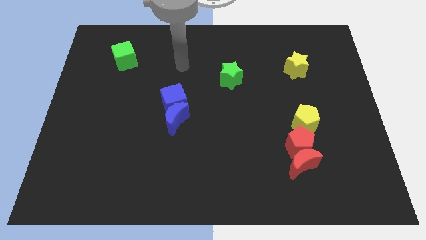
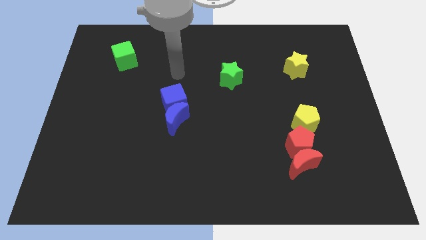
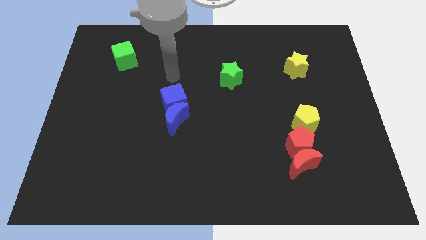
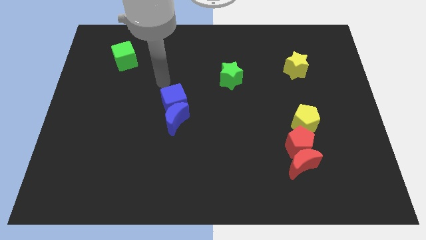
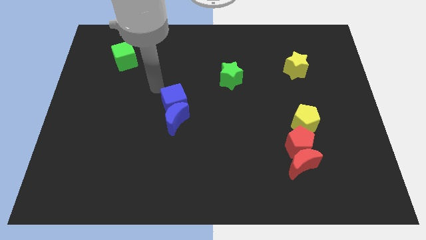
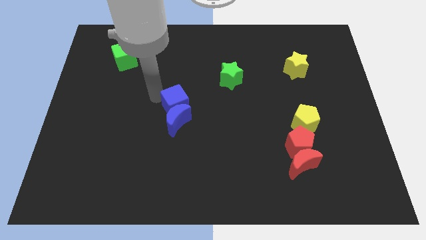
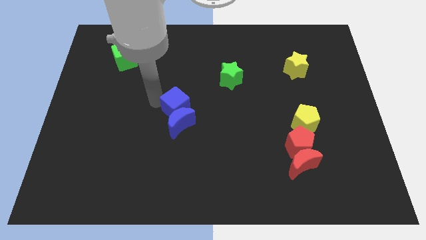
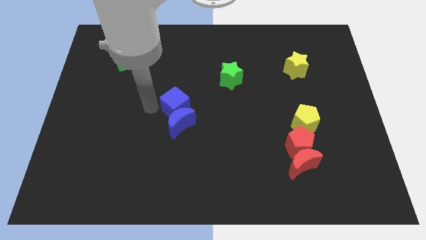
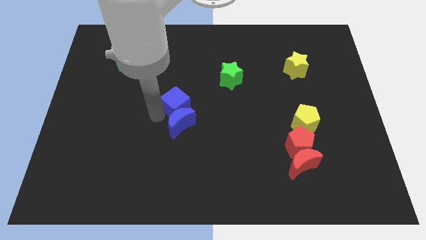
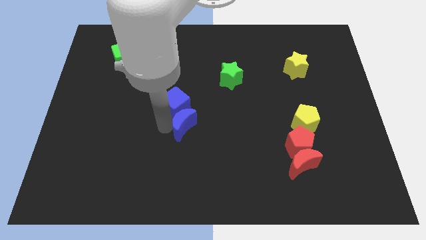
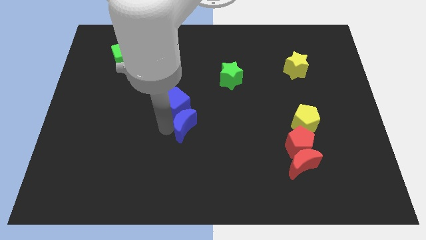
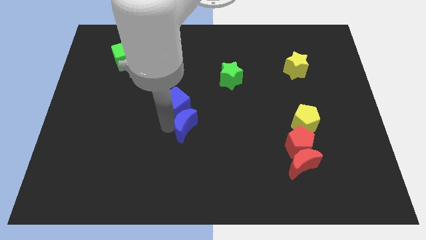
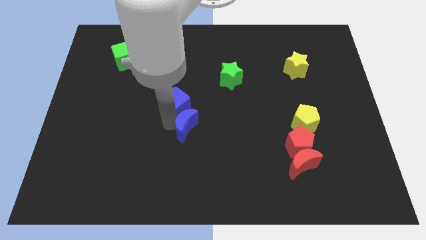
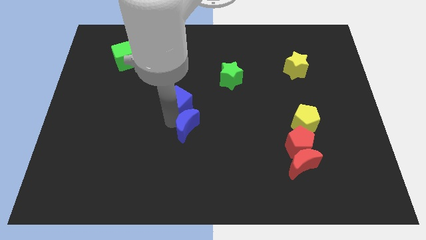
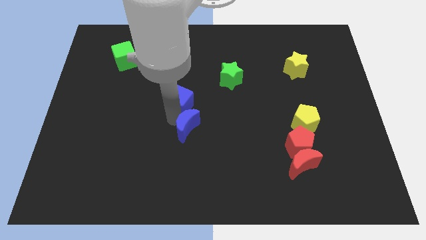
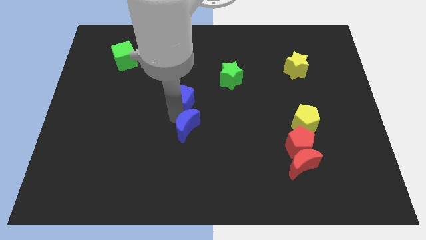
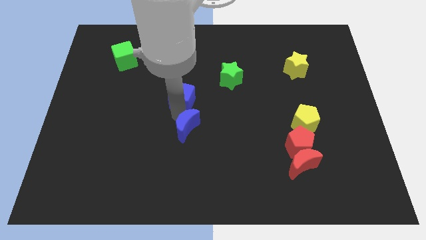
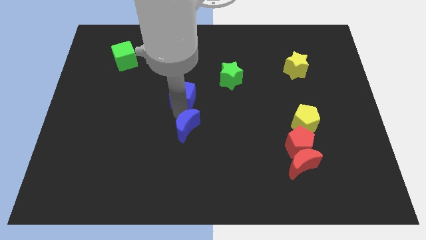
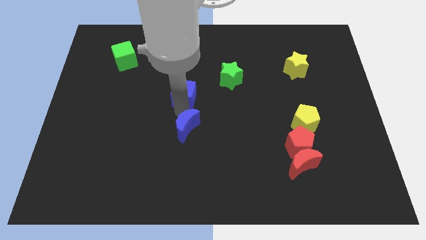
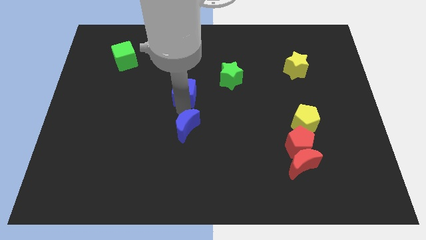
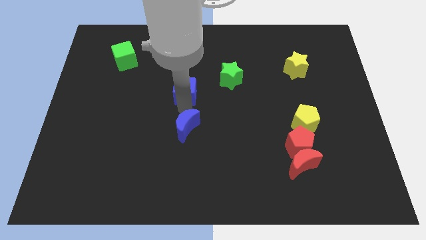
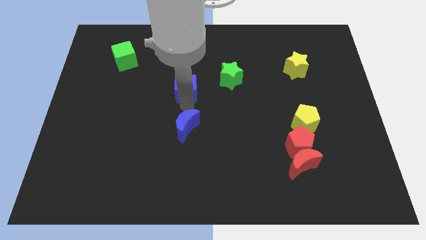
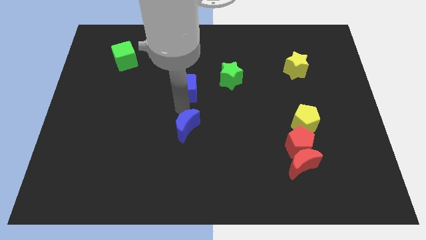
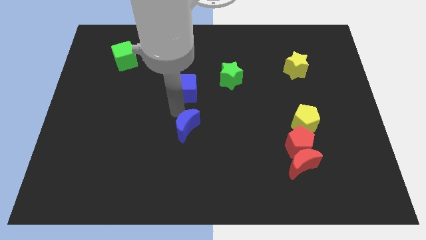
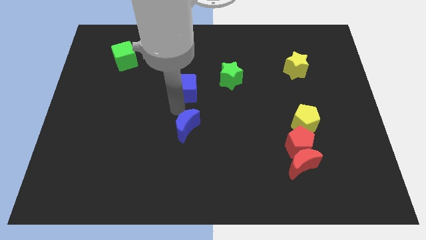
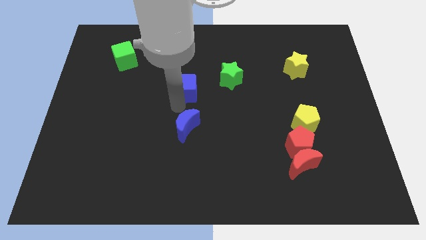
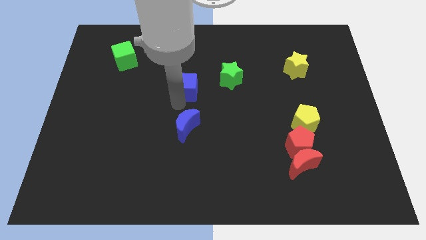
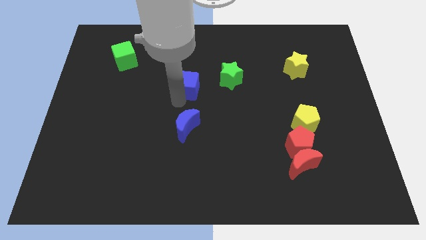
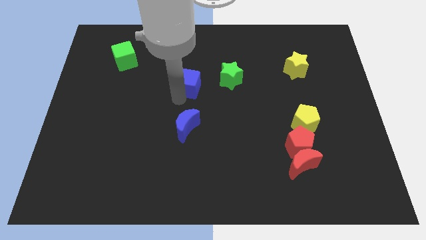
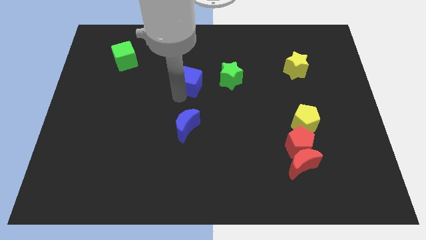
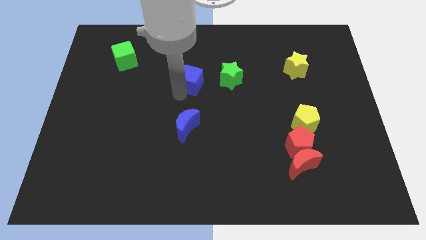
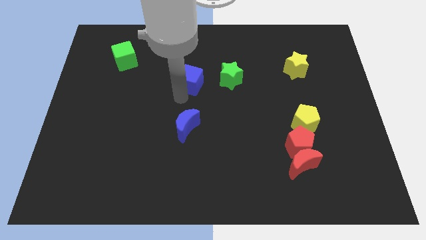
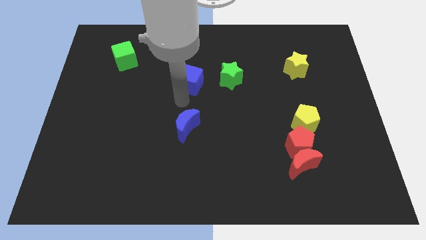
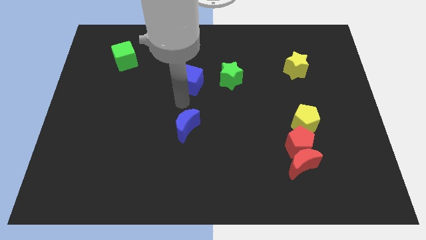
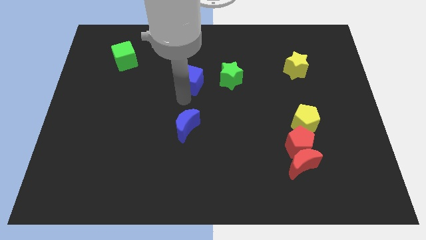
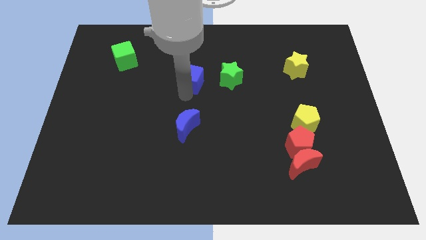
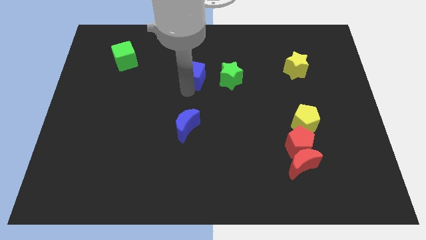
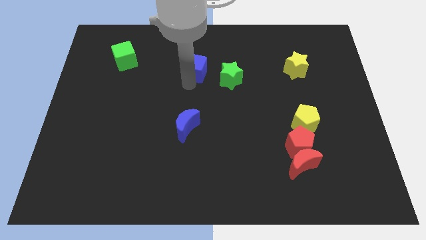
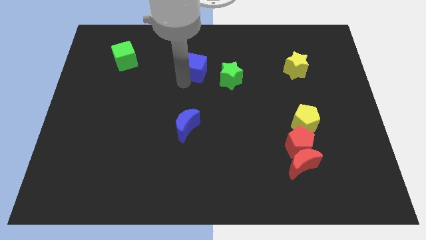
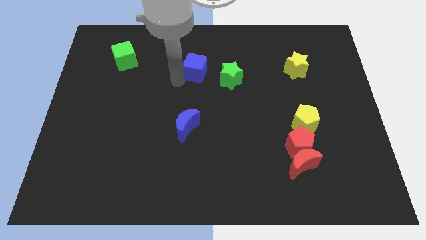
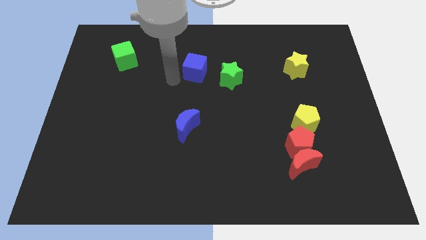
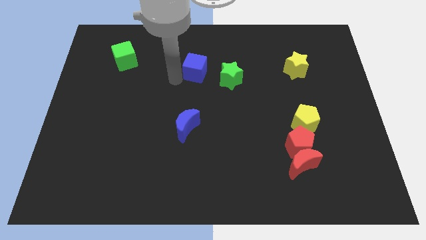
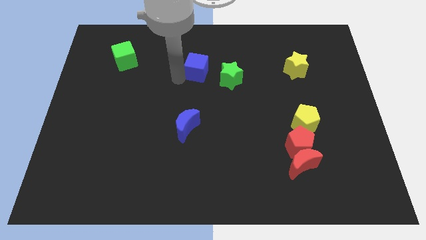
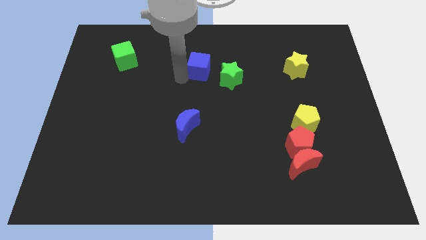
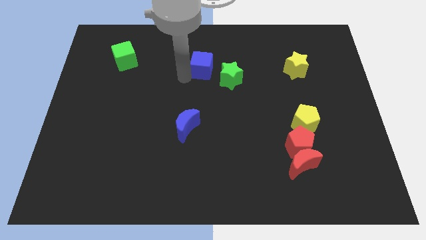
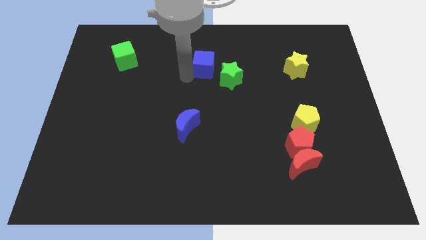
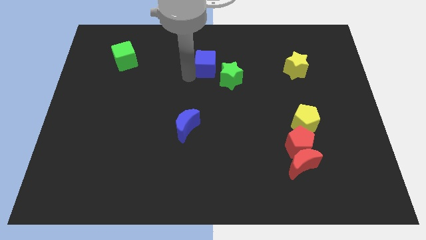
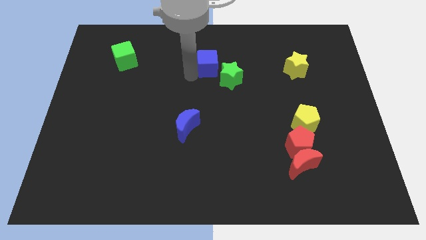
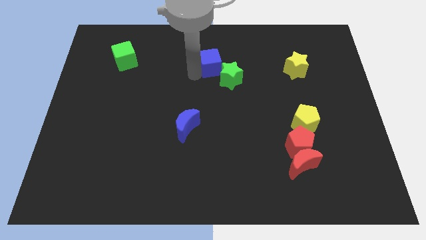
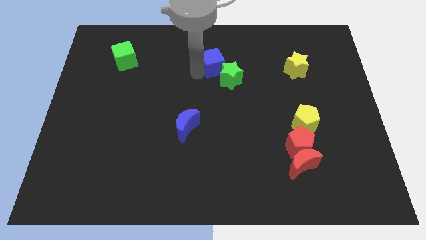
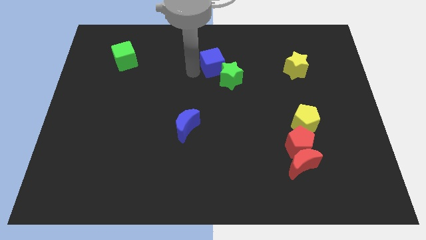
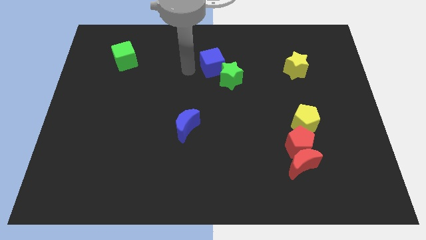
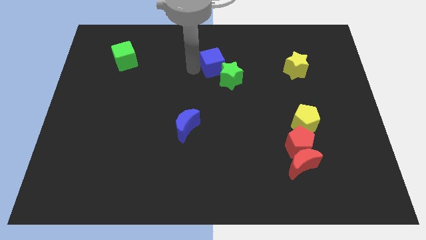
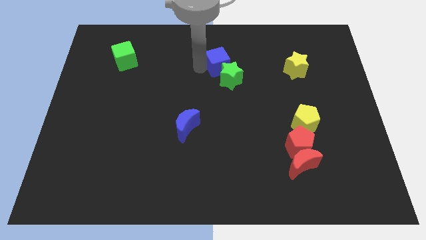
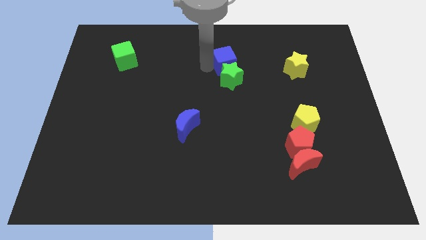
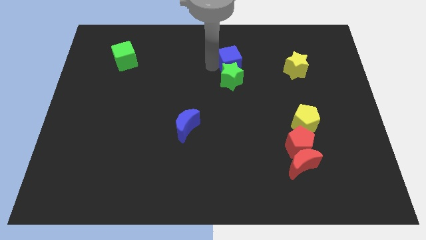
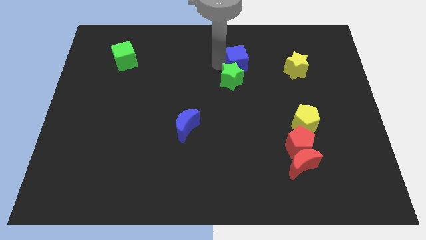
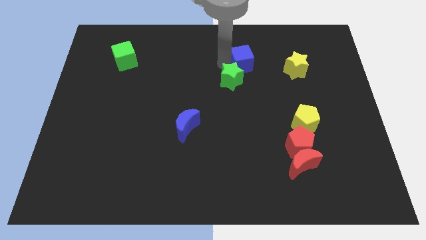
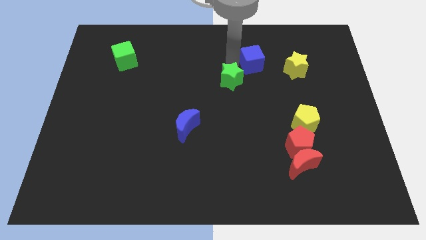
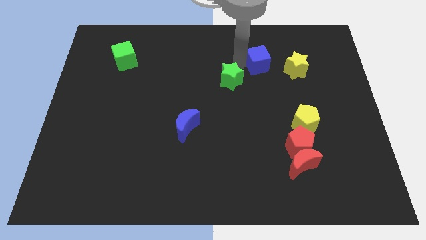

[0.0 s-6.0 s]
put the blue cube to the top left side of the yellow star
